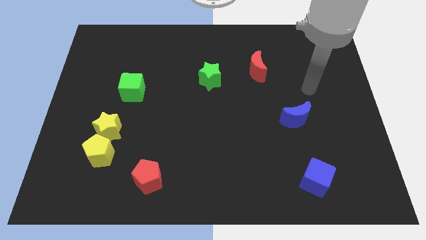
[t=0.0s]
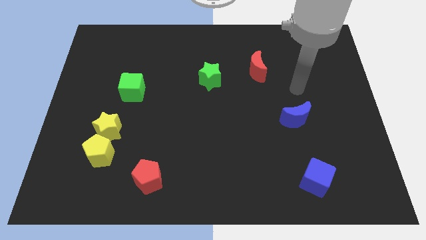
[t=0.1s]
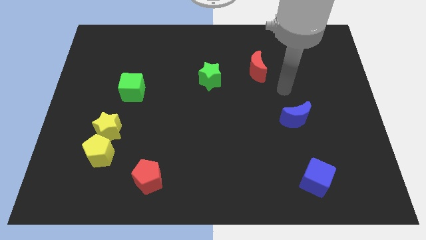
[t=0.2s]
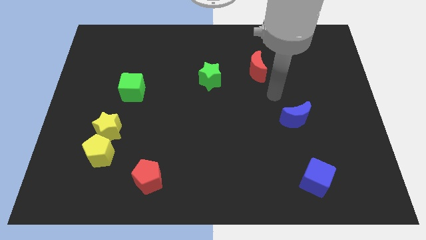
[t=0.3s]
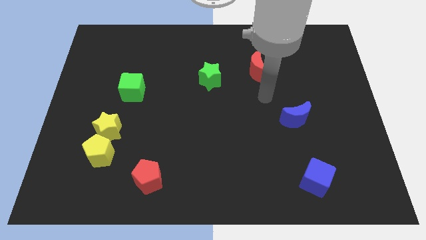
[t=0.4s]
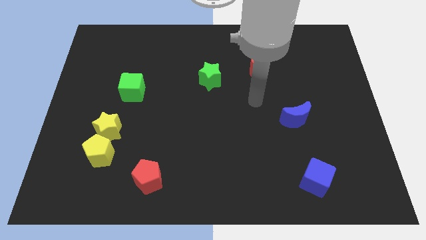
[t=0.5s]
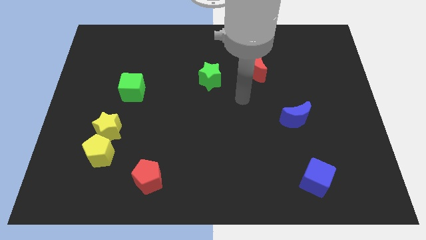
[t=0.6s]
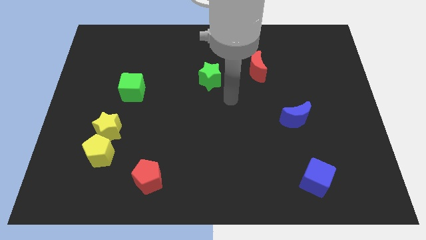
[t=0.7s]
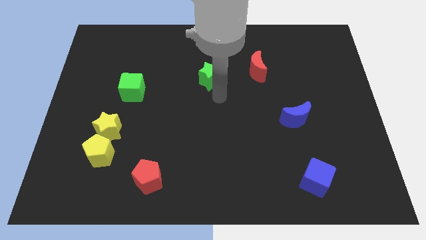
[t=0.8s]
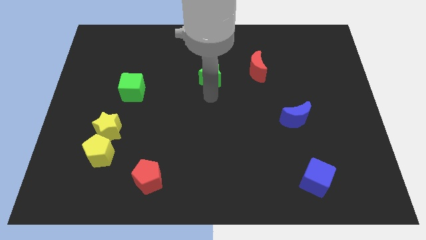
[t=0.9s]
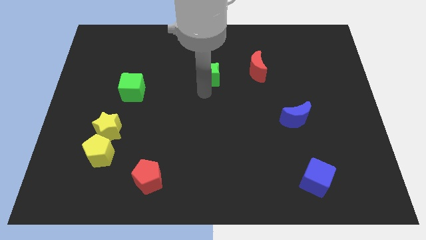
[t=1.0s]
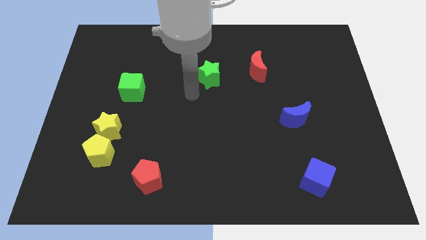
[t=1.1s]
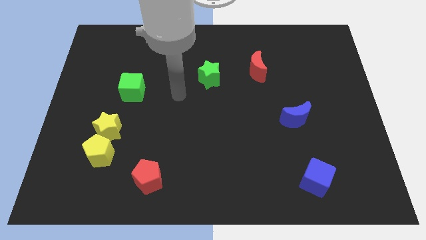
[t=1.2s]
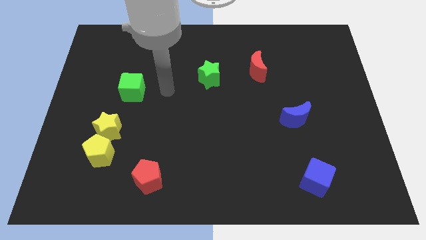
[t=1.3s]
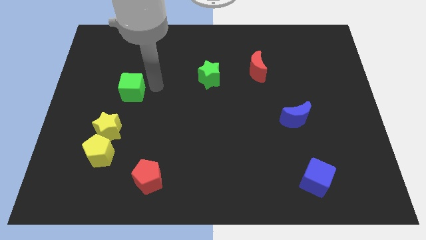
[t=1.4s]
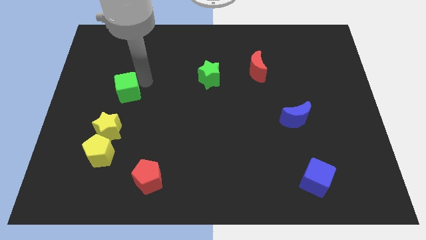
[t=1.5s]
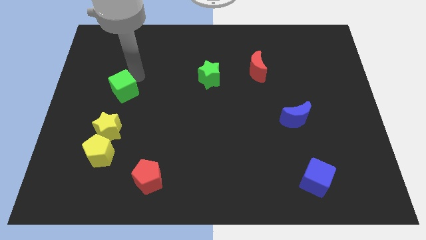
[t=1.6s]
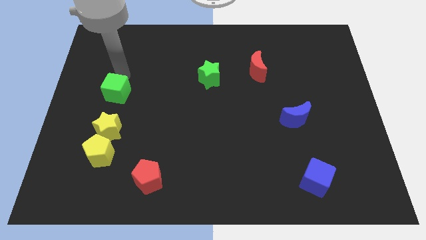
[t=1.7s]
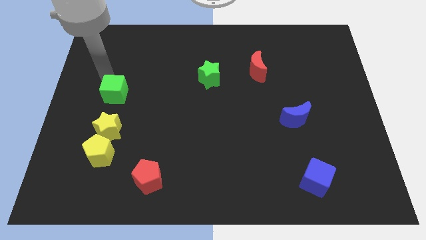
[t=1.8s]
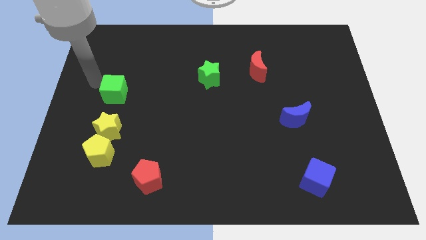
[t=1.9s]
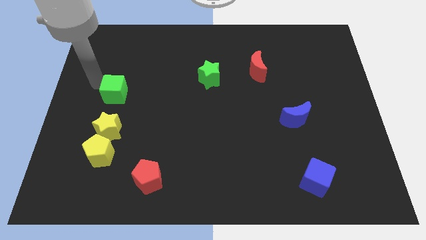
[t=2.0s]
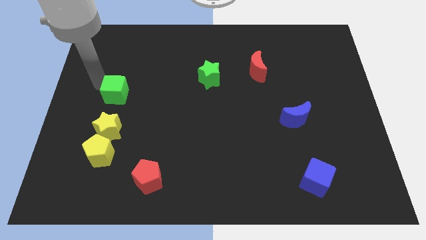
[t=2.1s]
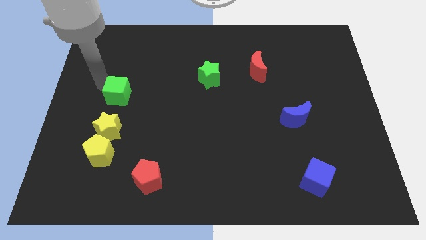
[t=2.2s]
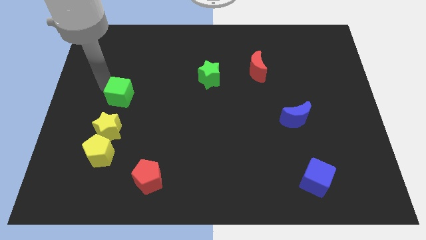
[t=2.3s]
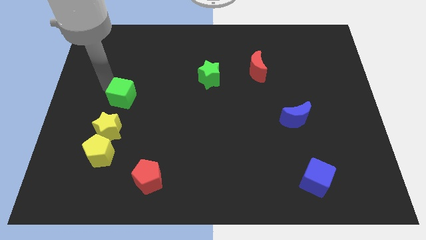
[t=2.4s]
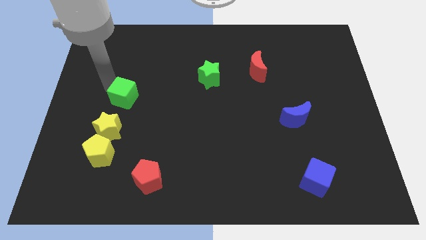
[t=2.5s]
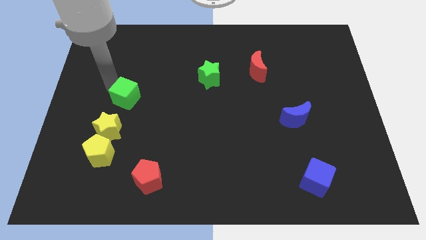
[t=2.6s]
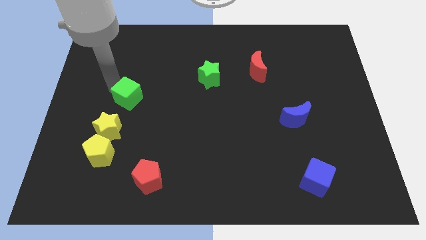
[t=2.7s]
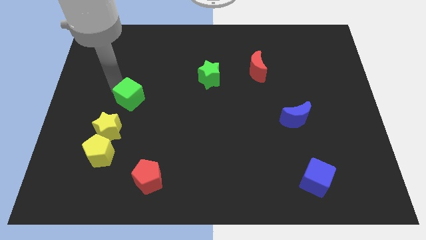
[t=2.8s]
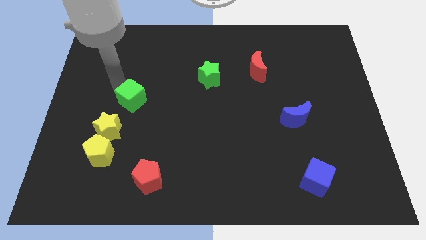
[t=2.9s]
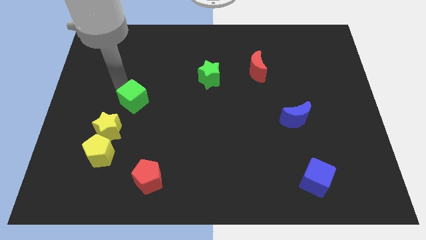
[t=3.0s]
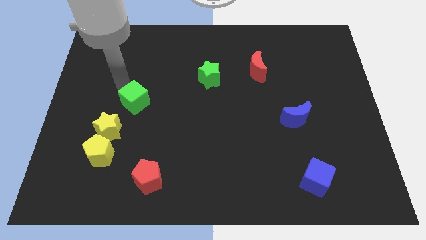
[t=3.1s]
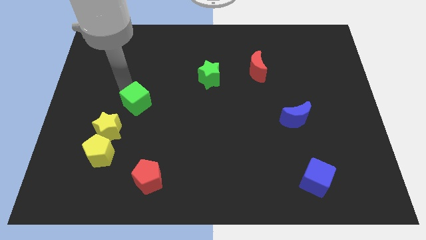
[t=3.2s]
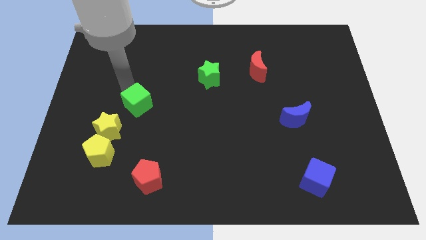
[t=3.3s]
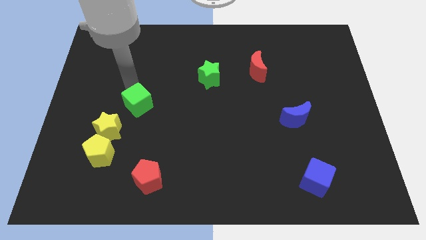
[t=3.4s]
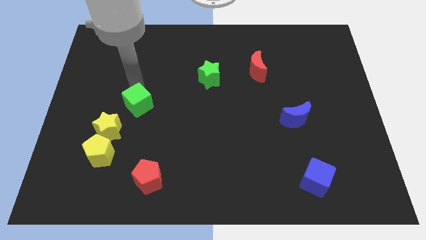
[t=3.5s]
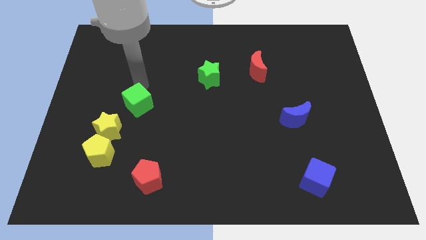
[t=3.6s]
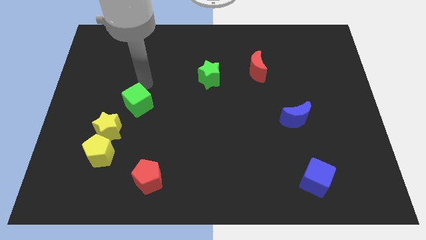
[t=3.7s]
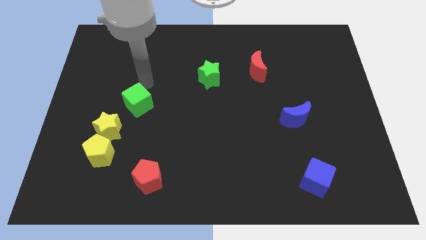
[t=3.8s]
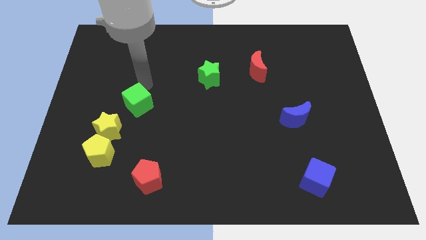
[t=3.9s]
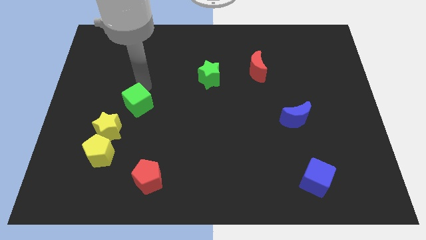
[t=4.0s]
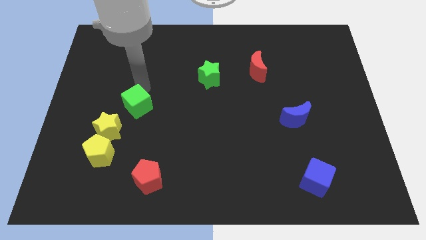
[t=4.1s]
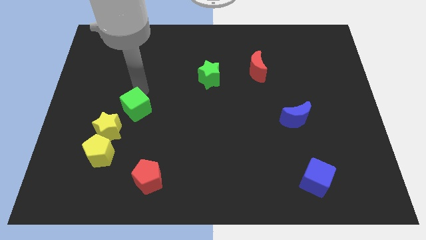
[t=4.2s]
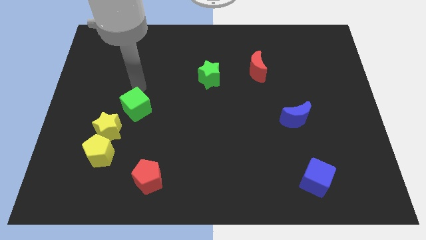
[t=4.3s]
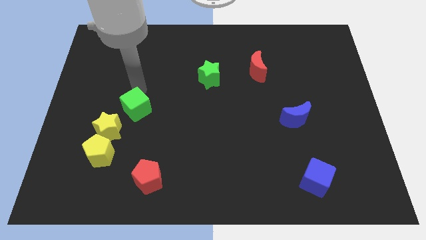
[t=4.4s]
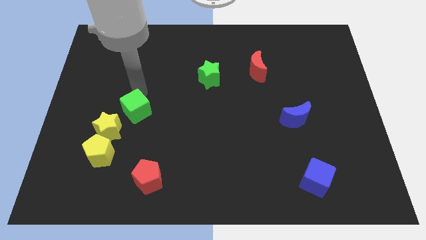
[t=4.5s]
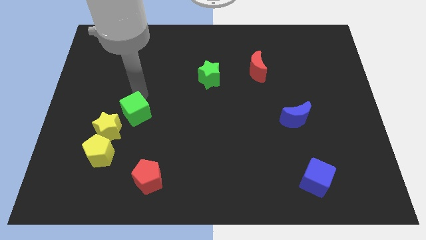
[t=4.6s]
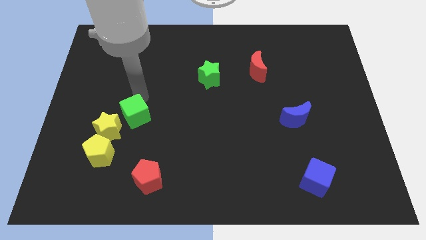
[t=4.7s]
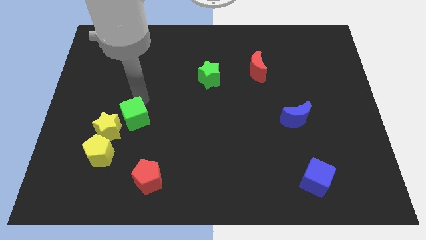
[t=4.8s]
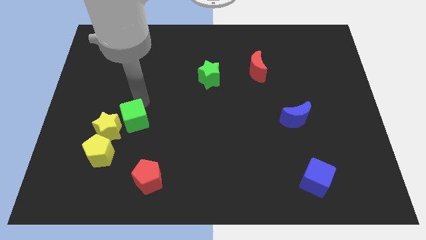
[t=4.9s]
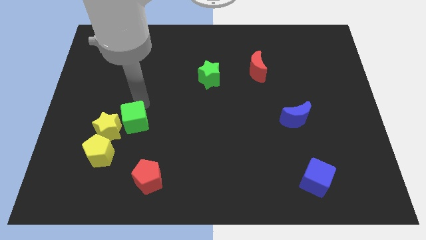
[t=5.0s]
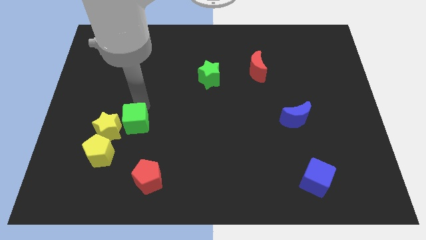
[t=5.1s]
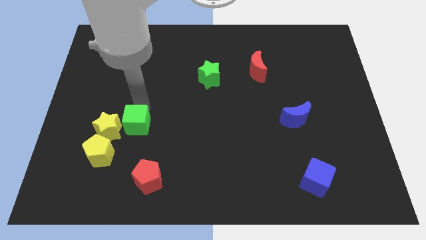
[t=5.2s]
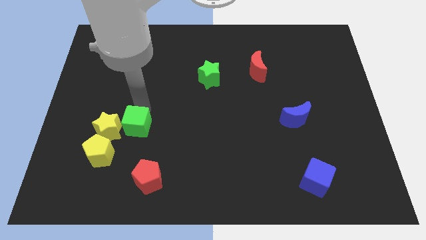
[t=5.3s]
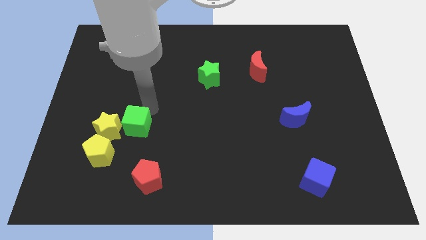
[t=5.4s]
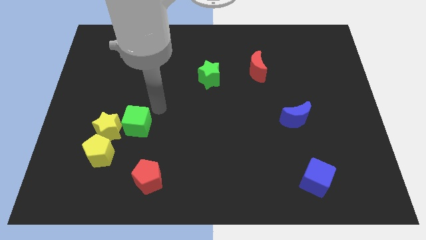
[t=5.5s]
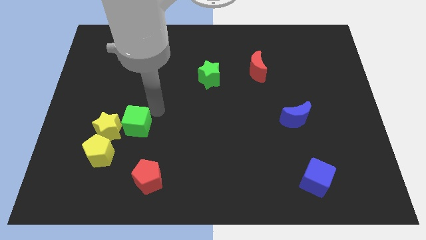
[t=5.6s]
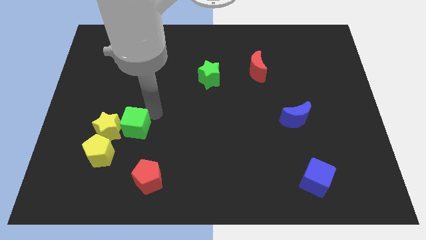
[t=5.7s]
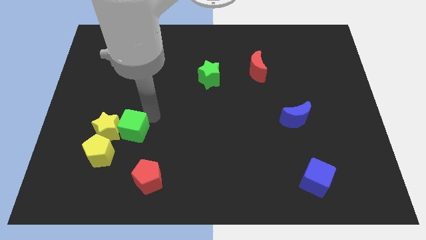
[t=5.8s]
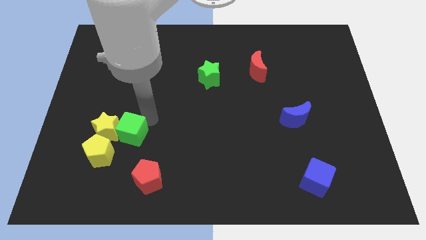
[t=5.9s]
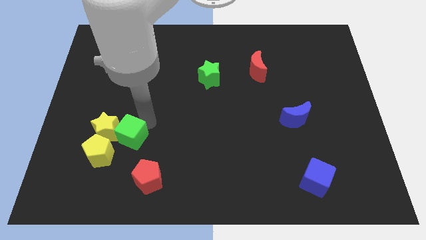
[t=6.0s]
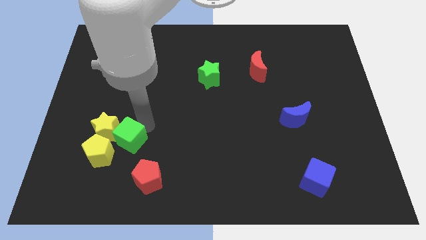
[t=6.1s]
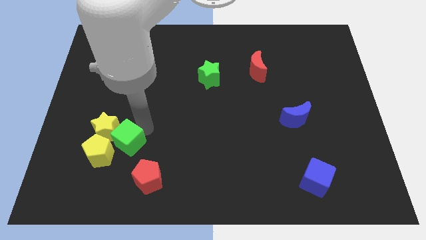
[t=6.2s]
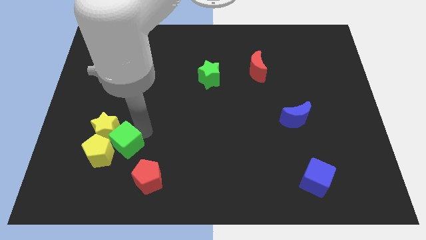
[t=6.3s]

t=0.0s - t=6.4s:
slide the green cube to the yellow pentagon
